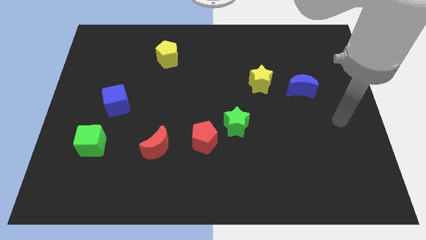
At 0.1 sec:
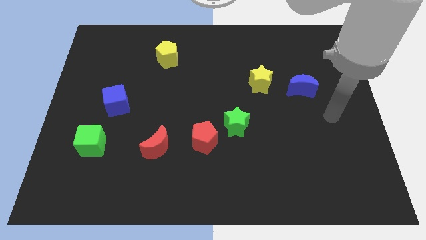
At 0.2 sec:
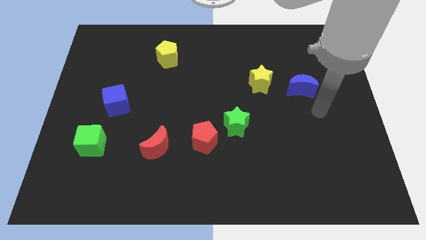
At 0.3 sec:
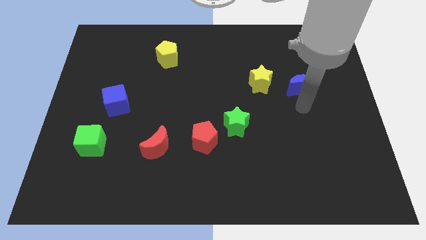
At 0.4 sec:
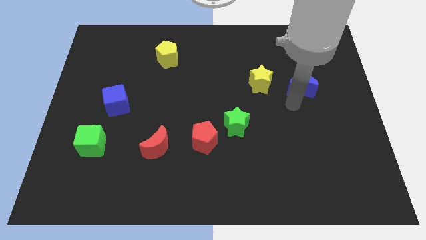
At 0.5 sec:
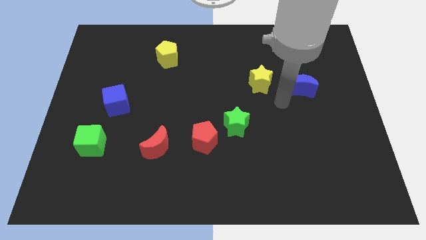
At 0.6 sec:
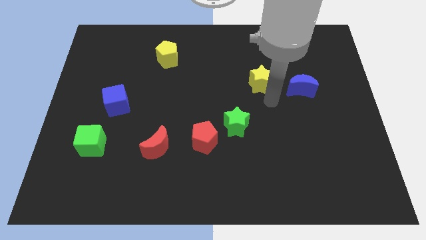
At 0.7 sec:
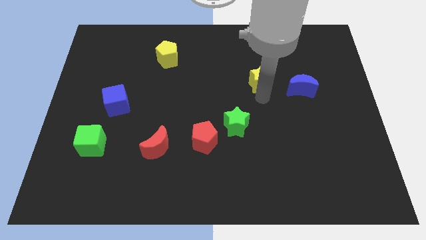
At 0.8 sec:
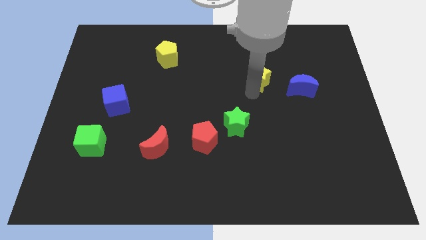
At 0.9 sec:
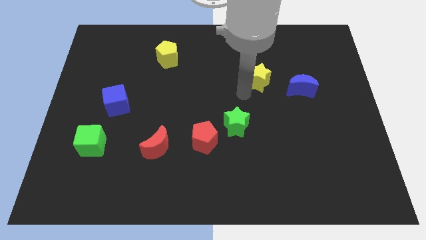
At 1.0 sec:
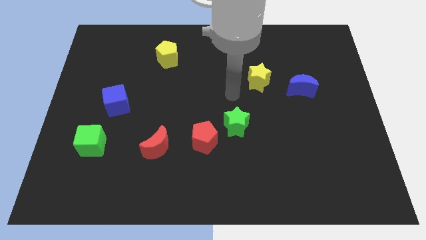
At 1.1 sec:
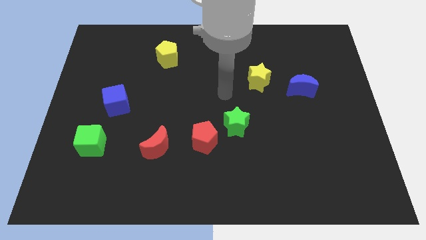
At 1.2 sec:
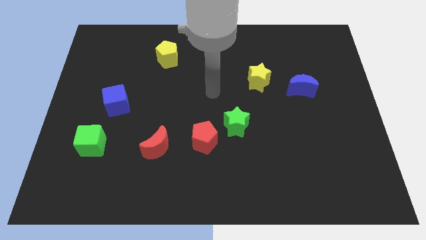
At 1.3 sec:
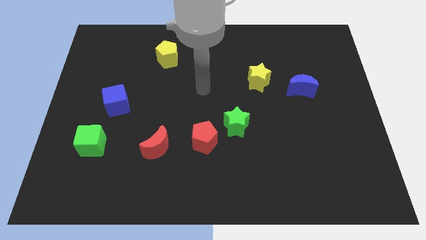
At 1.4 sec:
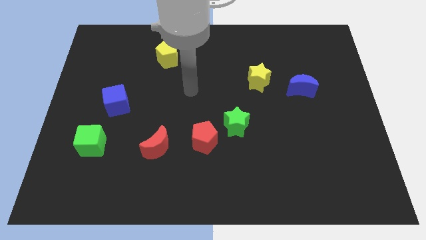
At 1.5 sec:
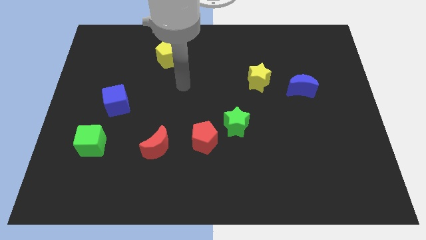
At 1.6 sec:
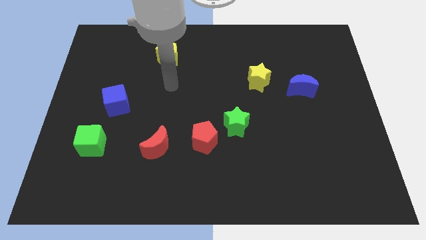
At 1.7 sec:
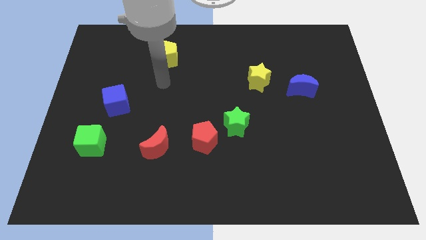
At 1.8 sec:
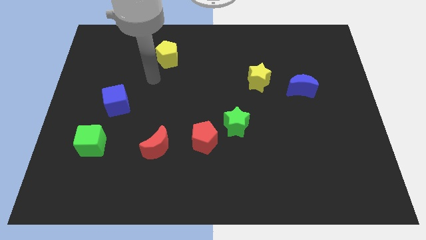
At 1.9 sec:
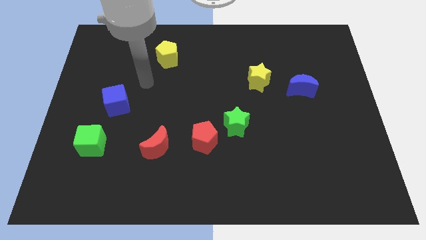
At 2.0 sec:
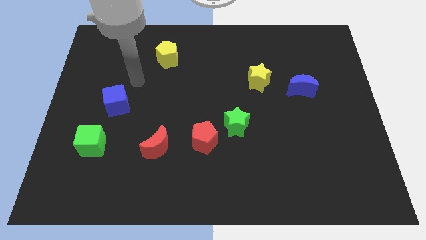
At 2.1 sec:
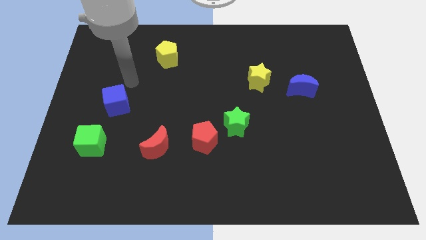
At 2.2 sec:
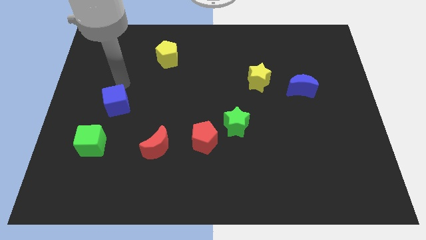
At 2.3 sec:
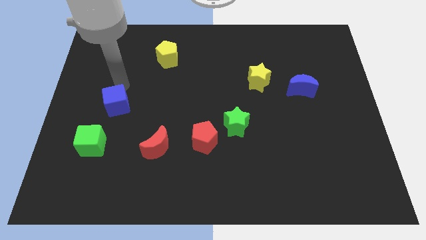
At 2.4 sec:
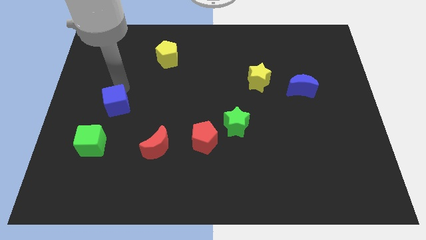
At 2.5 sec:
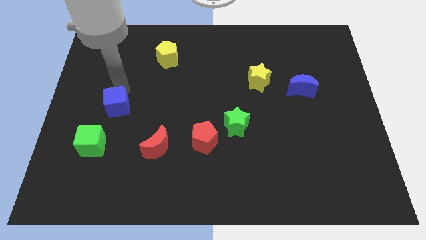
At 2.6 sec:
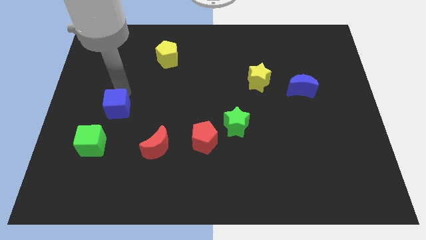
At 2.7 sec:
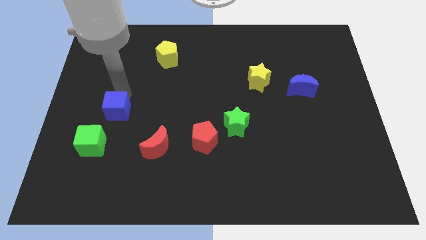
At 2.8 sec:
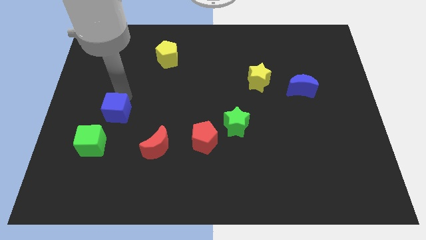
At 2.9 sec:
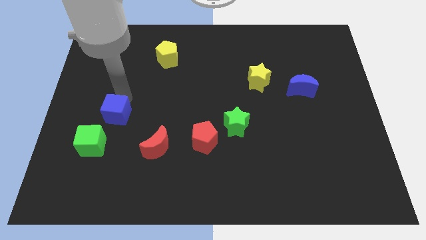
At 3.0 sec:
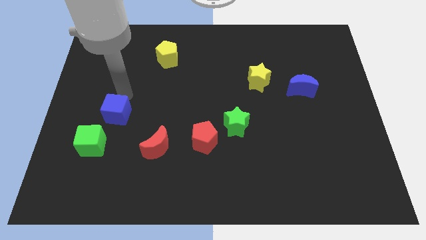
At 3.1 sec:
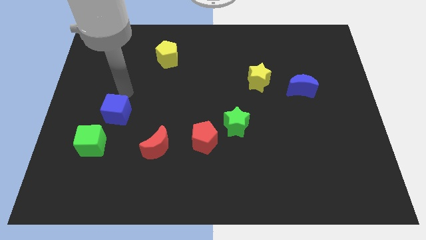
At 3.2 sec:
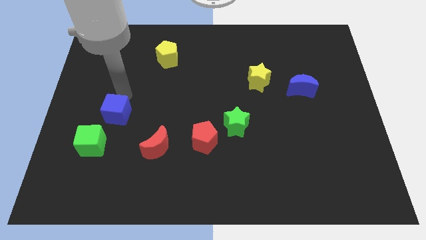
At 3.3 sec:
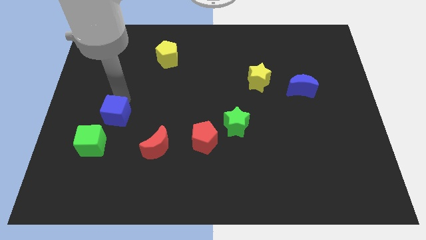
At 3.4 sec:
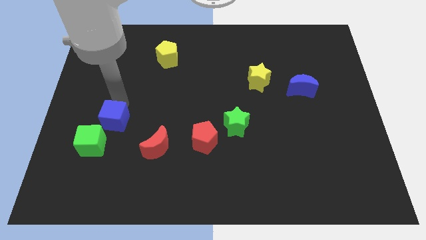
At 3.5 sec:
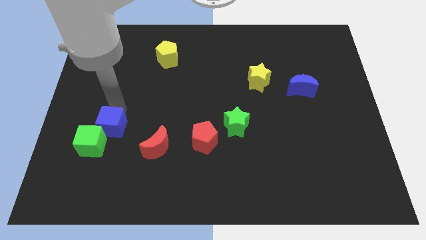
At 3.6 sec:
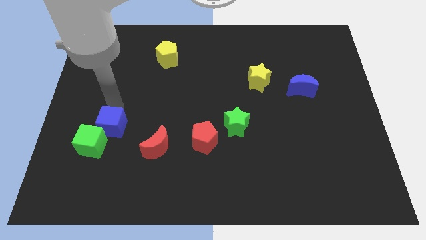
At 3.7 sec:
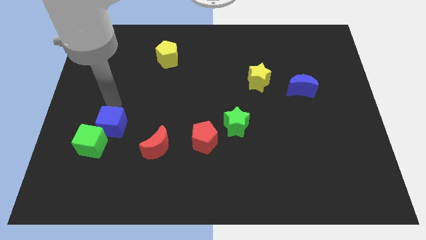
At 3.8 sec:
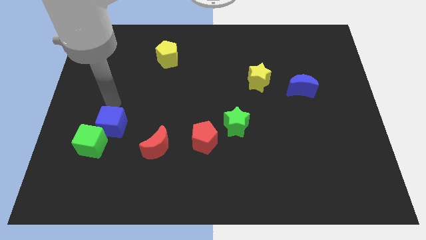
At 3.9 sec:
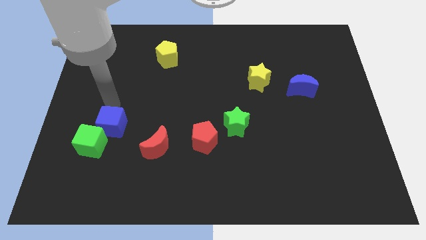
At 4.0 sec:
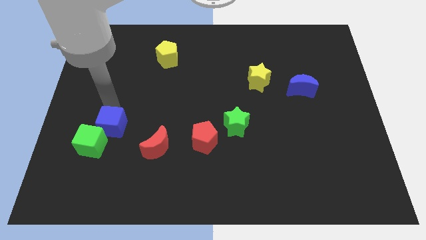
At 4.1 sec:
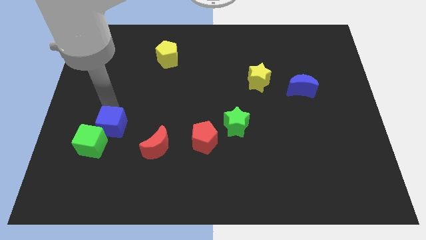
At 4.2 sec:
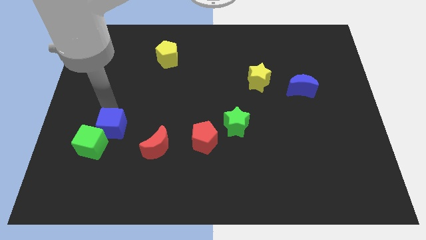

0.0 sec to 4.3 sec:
slide the blue cube a bit downwards

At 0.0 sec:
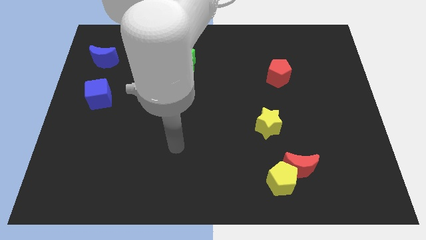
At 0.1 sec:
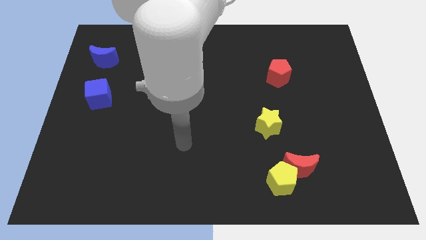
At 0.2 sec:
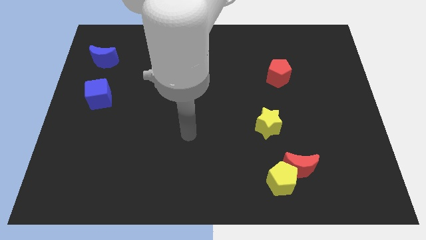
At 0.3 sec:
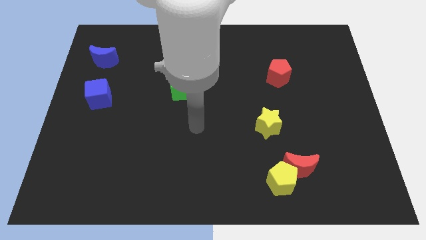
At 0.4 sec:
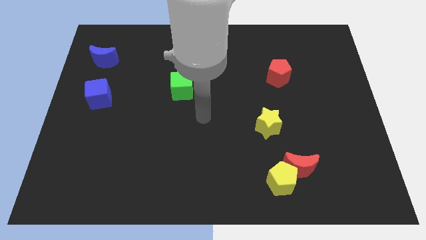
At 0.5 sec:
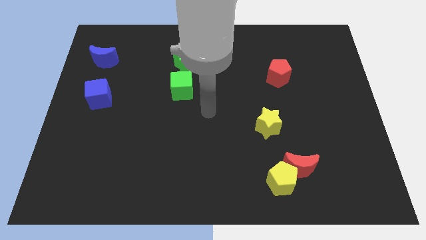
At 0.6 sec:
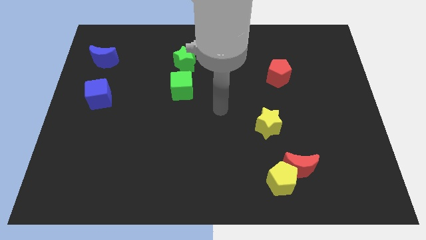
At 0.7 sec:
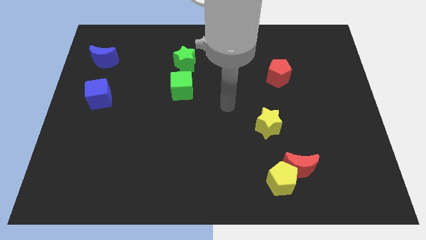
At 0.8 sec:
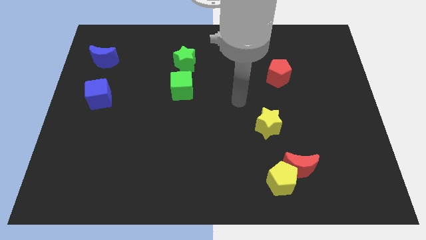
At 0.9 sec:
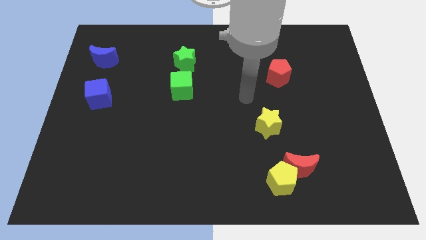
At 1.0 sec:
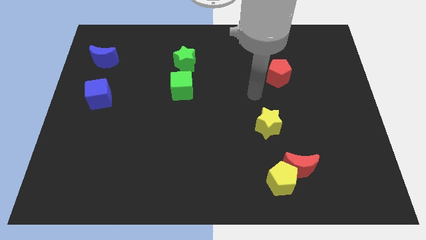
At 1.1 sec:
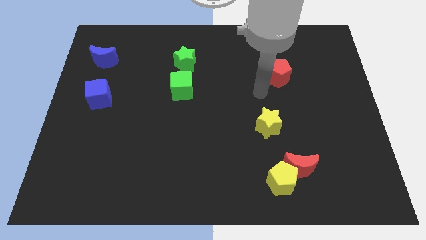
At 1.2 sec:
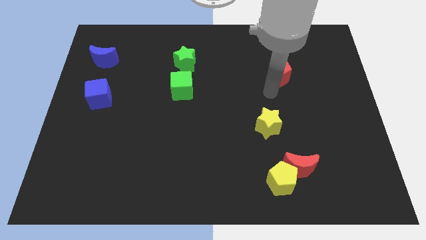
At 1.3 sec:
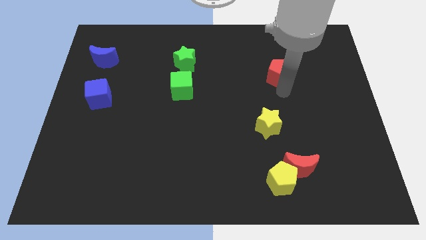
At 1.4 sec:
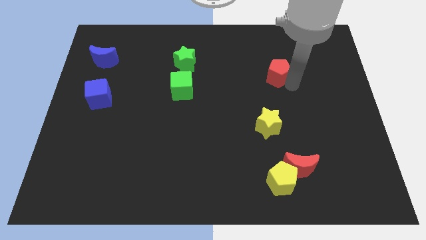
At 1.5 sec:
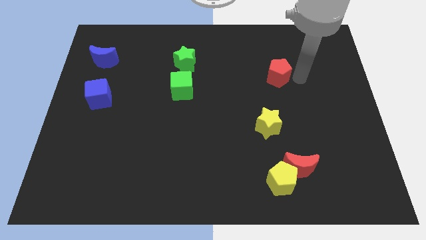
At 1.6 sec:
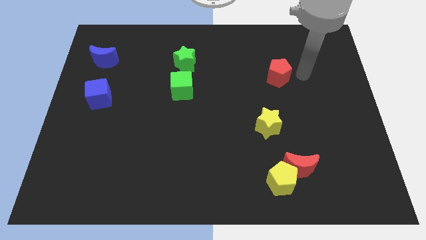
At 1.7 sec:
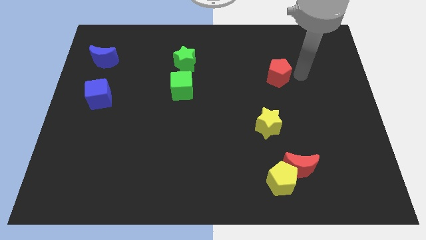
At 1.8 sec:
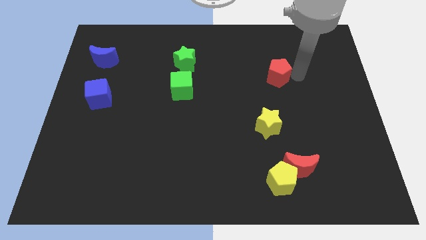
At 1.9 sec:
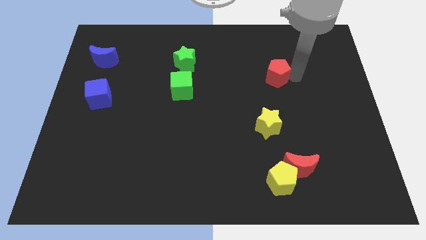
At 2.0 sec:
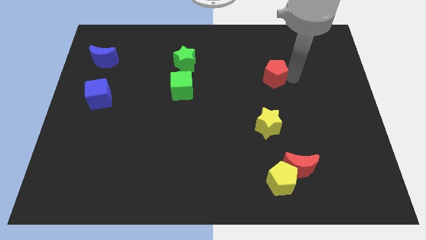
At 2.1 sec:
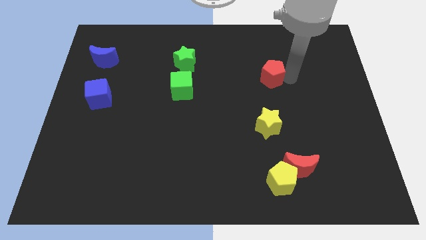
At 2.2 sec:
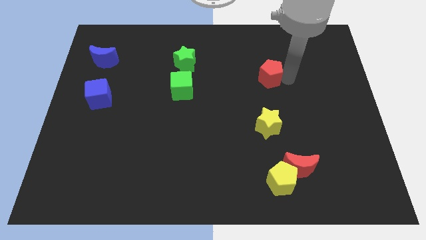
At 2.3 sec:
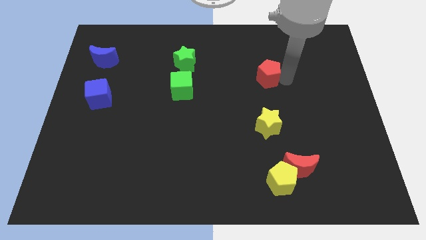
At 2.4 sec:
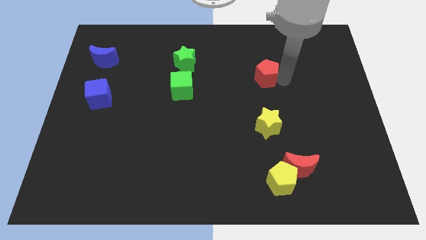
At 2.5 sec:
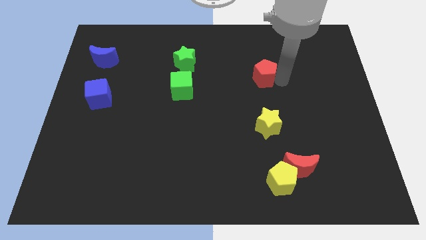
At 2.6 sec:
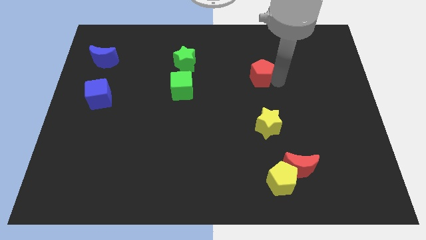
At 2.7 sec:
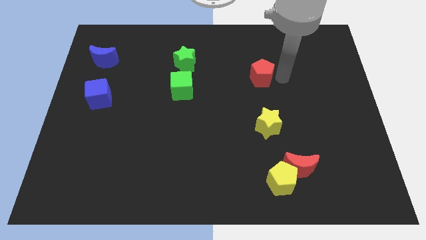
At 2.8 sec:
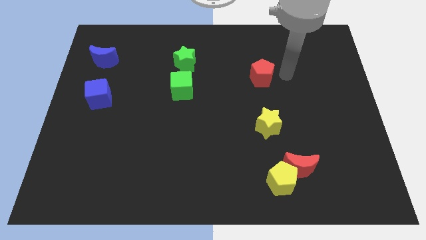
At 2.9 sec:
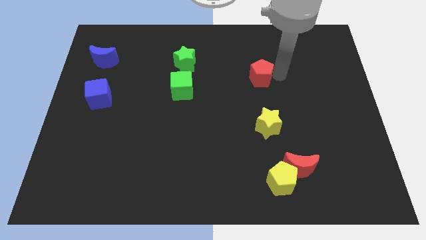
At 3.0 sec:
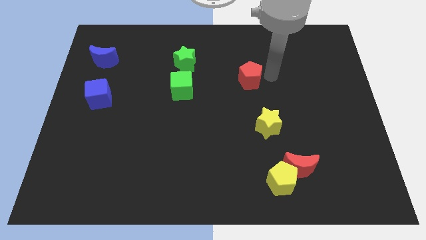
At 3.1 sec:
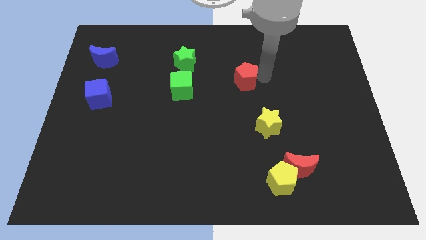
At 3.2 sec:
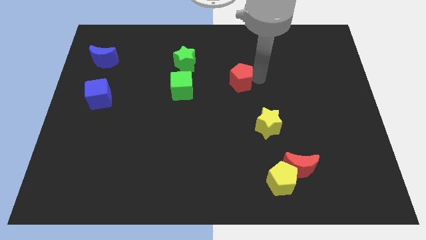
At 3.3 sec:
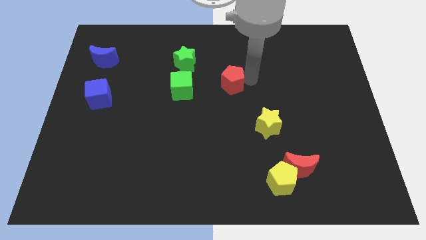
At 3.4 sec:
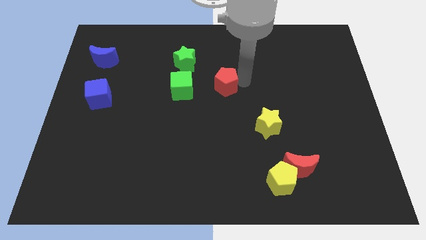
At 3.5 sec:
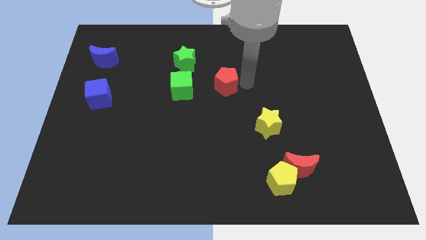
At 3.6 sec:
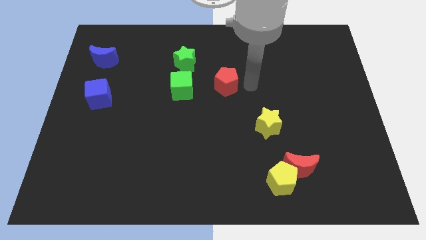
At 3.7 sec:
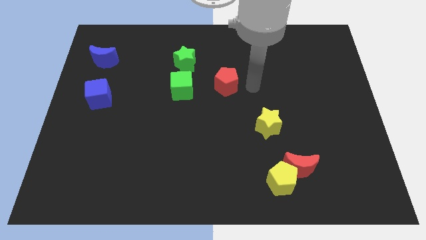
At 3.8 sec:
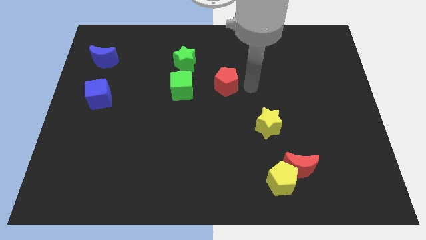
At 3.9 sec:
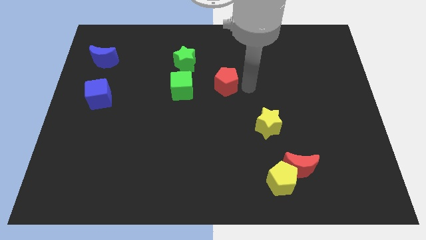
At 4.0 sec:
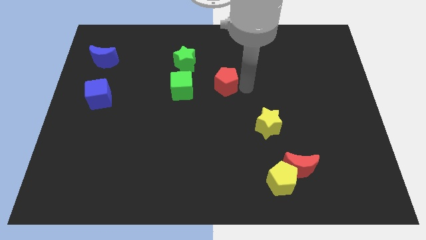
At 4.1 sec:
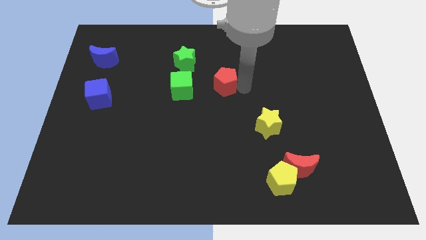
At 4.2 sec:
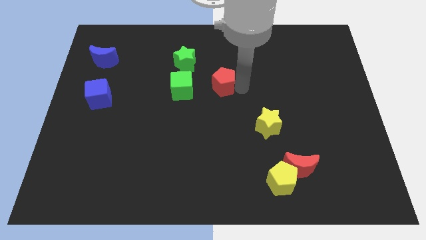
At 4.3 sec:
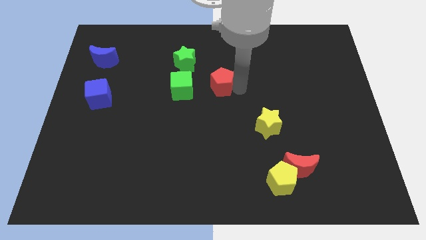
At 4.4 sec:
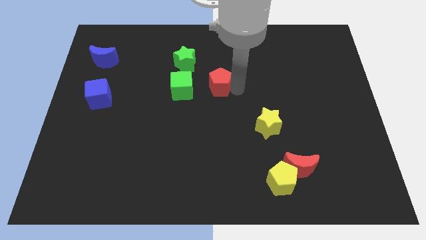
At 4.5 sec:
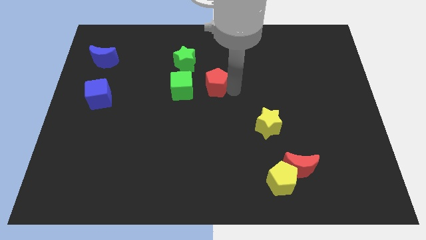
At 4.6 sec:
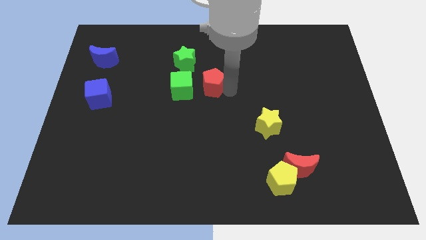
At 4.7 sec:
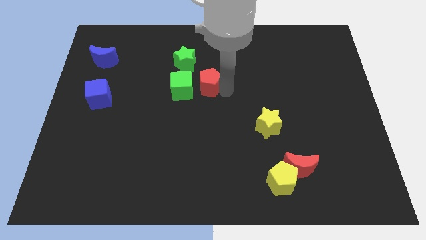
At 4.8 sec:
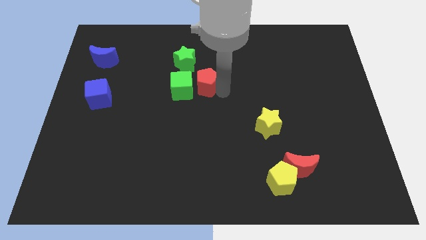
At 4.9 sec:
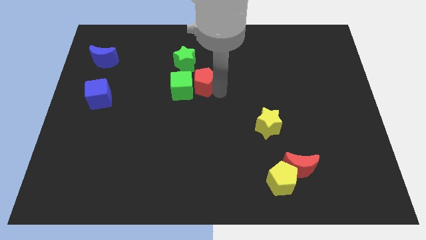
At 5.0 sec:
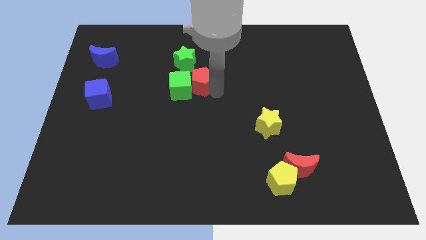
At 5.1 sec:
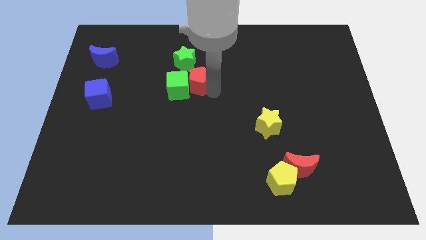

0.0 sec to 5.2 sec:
slide the red pentagon to the left
